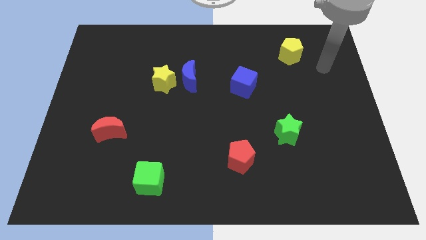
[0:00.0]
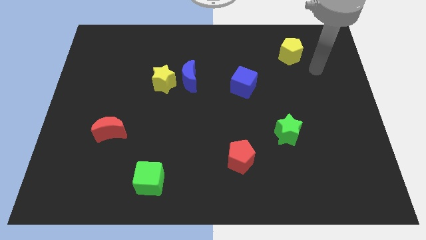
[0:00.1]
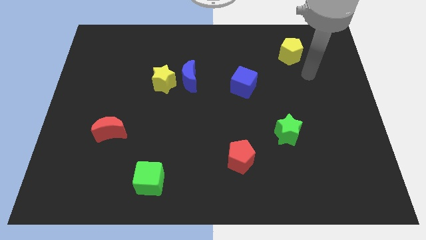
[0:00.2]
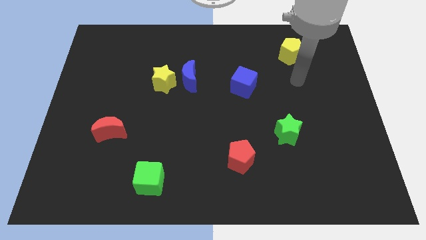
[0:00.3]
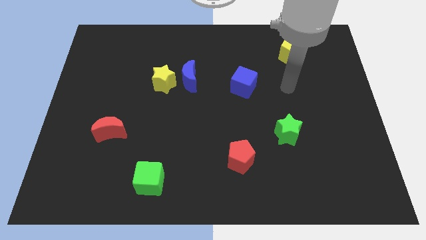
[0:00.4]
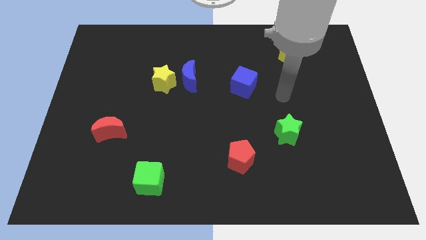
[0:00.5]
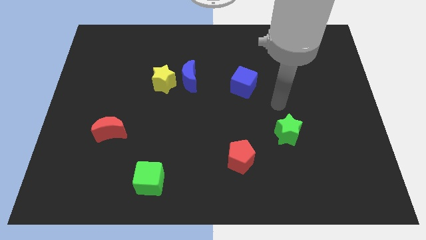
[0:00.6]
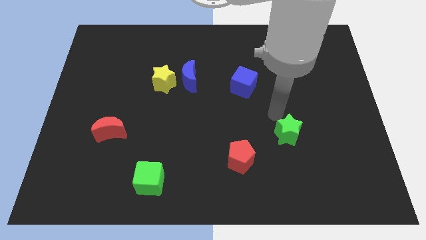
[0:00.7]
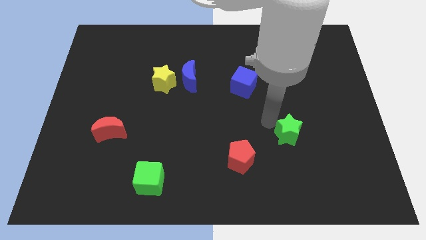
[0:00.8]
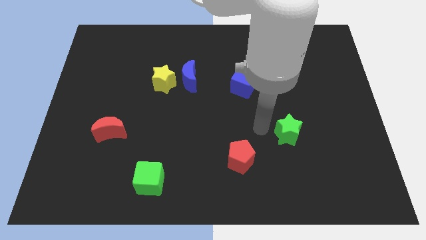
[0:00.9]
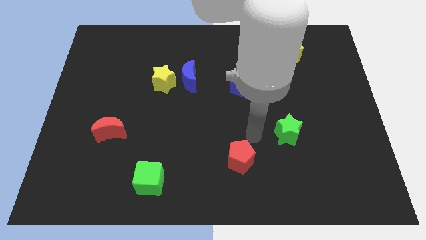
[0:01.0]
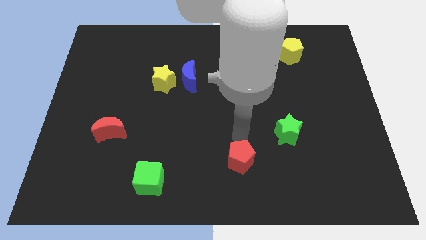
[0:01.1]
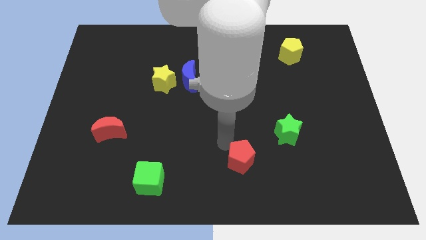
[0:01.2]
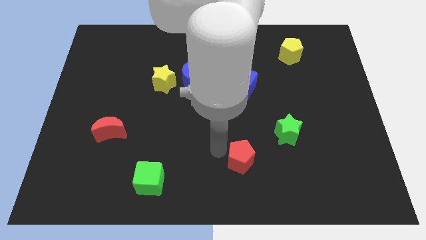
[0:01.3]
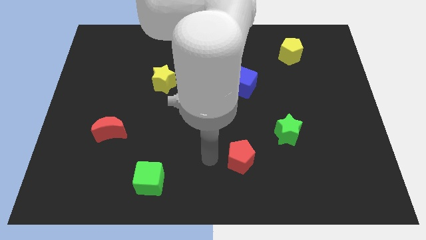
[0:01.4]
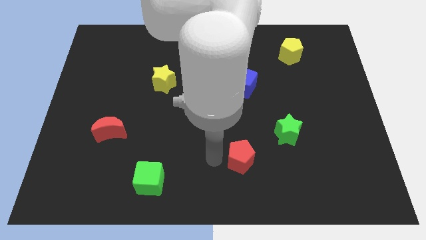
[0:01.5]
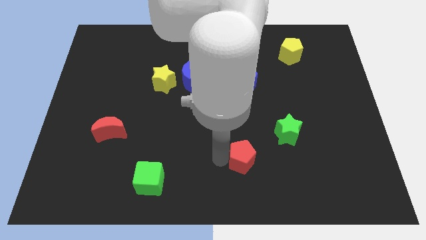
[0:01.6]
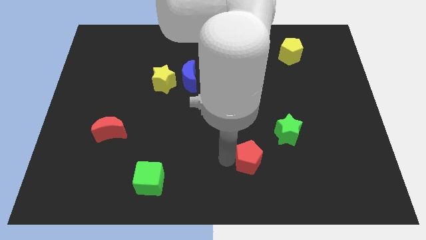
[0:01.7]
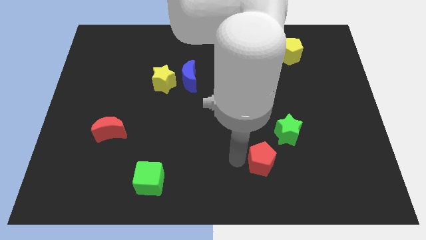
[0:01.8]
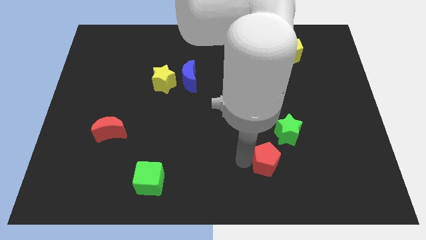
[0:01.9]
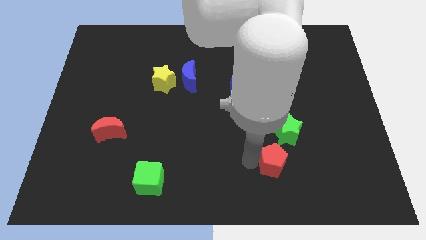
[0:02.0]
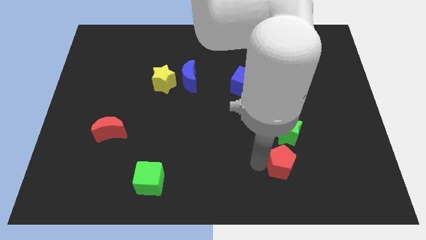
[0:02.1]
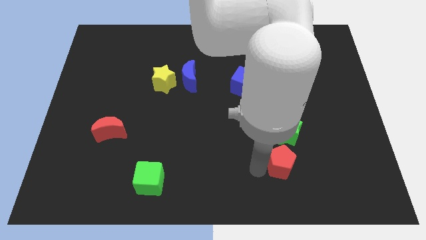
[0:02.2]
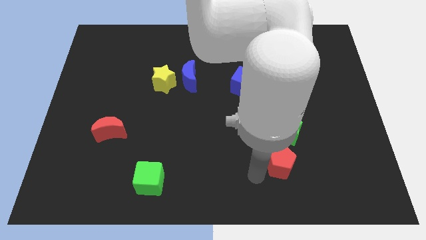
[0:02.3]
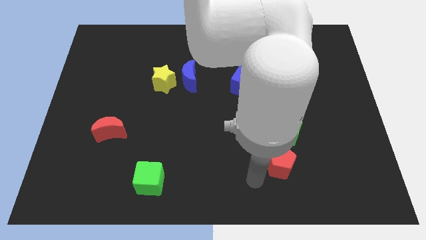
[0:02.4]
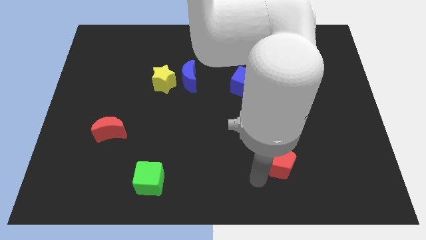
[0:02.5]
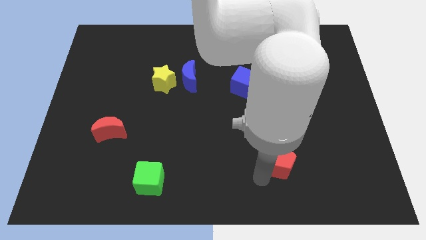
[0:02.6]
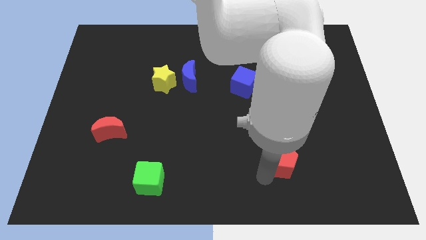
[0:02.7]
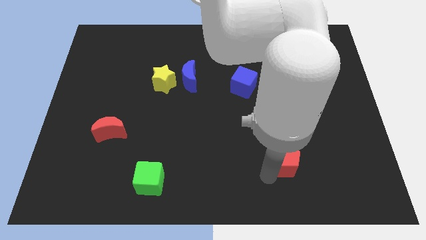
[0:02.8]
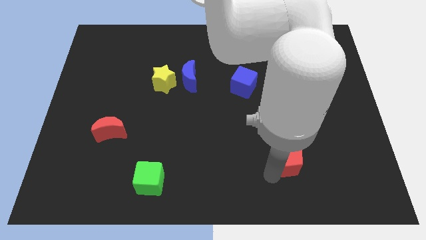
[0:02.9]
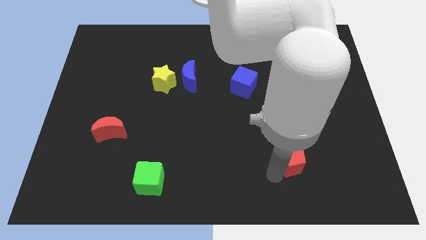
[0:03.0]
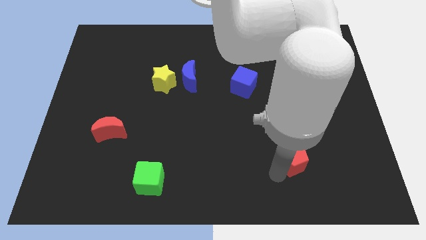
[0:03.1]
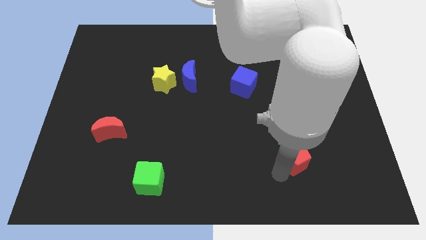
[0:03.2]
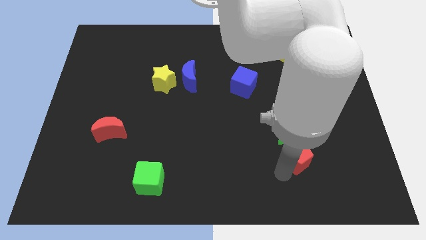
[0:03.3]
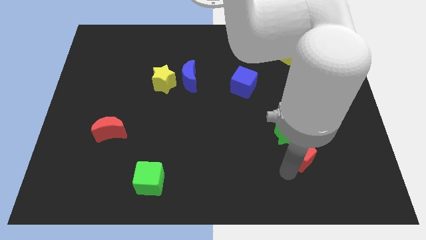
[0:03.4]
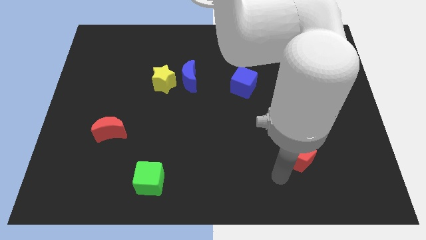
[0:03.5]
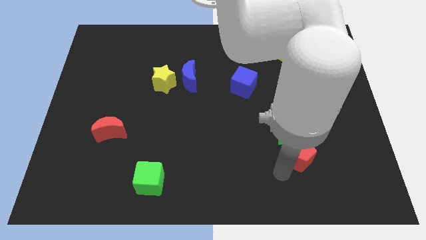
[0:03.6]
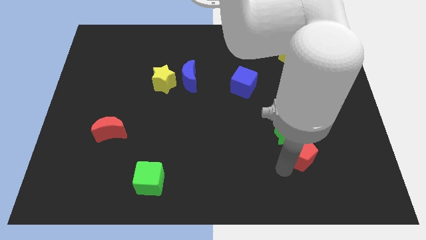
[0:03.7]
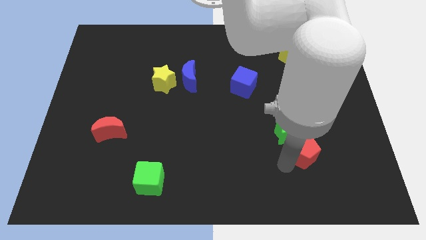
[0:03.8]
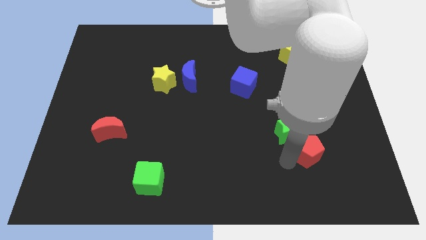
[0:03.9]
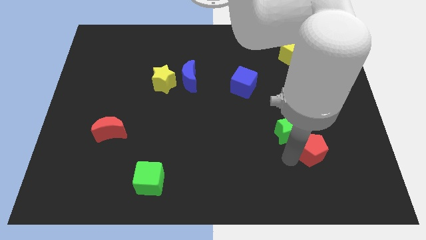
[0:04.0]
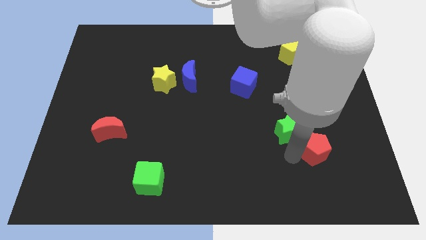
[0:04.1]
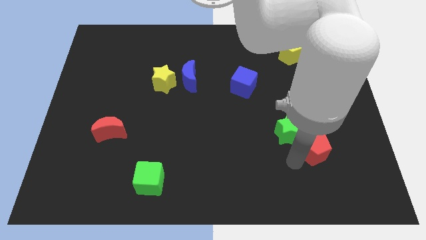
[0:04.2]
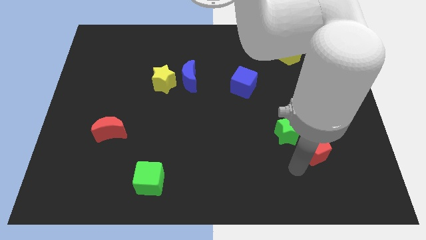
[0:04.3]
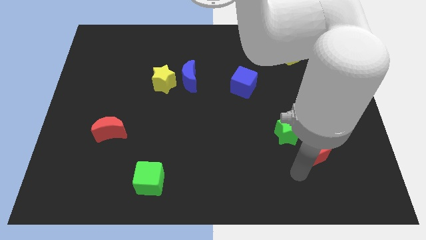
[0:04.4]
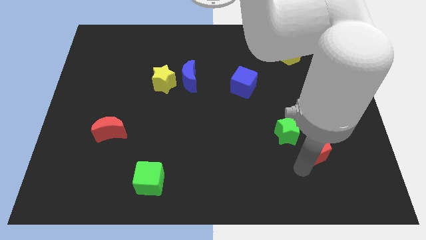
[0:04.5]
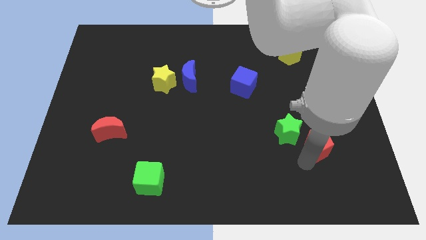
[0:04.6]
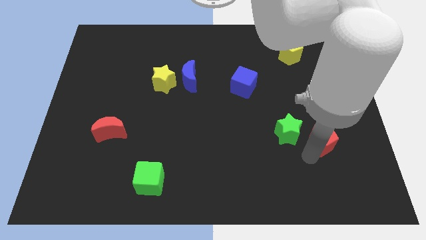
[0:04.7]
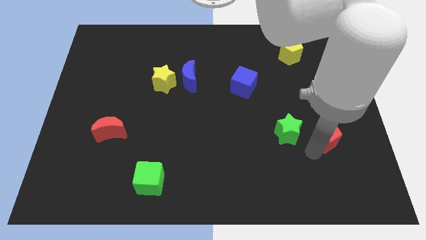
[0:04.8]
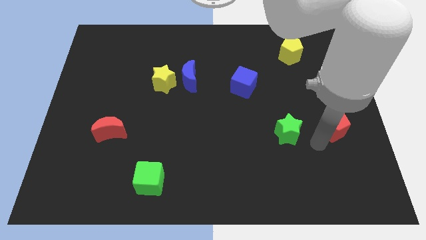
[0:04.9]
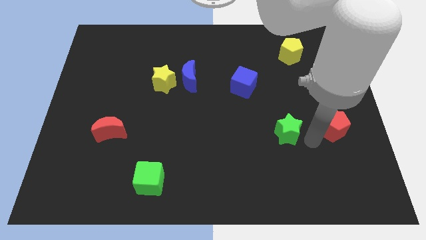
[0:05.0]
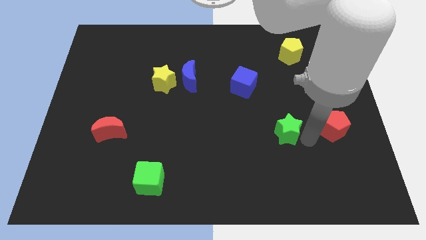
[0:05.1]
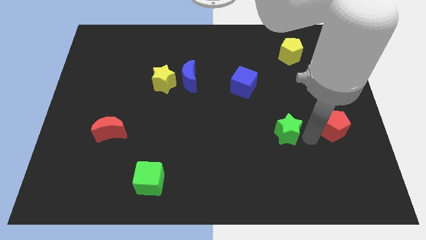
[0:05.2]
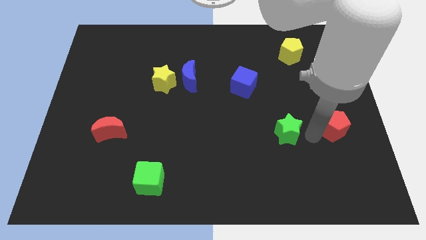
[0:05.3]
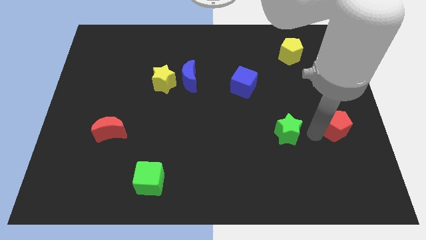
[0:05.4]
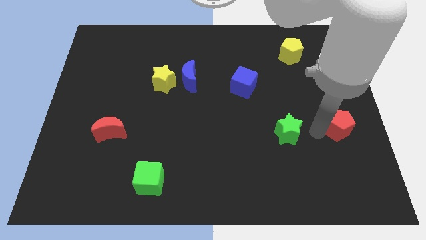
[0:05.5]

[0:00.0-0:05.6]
slide the red pentagon to the right side
